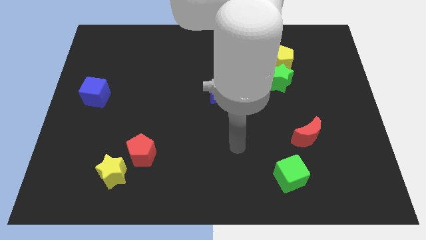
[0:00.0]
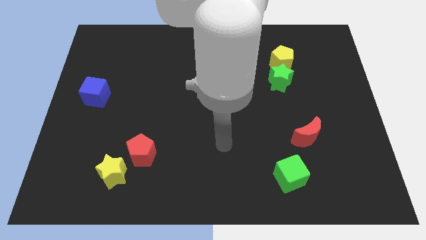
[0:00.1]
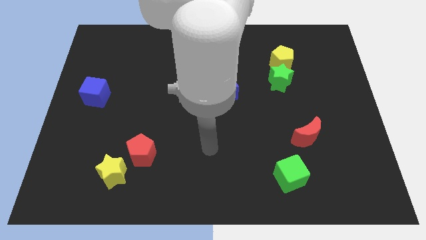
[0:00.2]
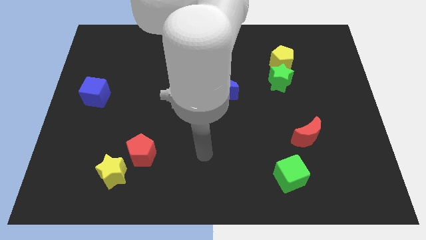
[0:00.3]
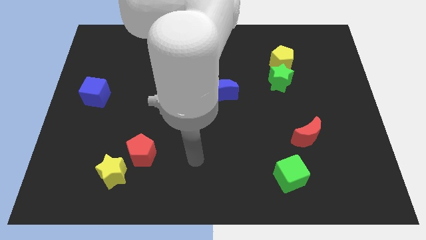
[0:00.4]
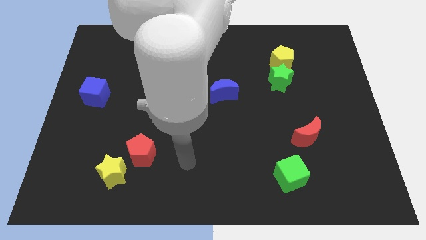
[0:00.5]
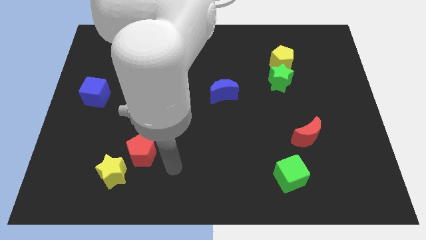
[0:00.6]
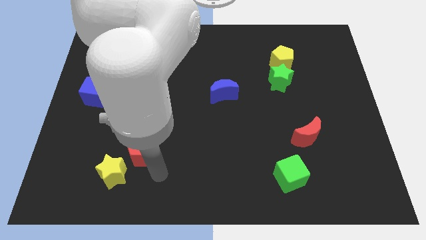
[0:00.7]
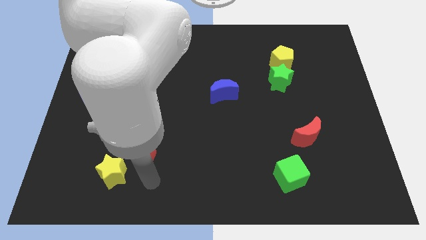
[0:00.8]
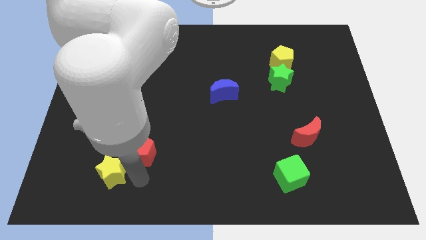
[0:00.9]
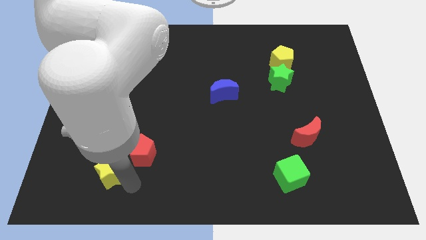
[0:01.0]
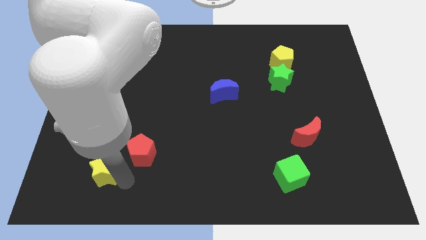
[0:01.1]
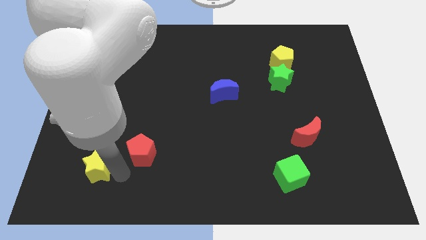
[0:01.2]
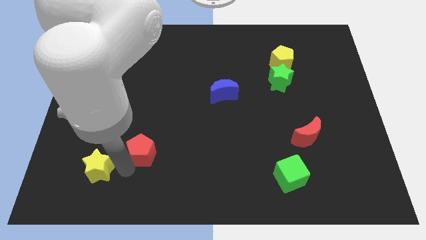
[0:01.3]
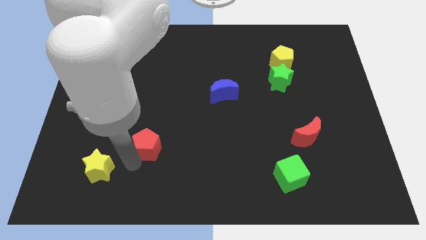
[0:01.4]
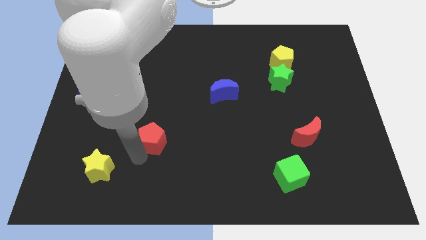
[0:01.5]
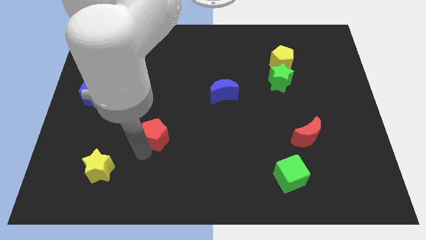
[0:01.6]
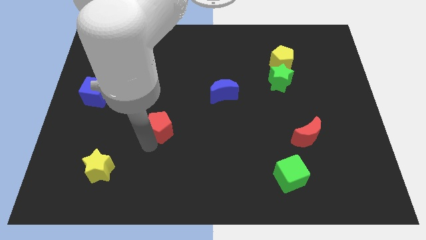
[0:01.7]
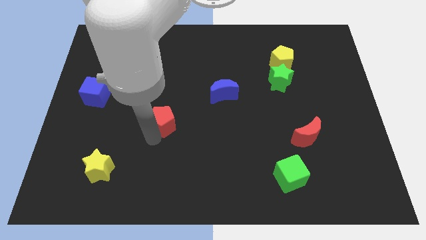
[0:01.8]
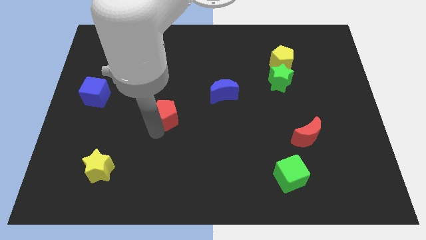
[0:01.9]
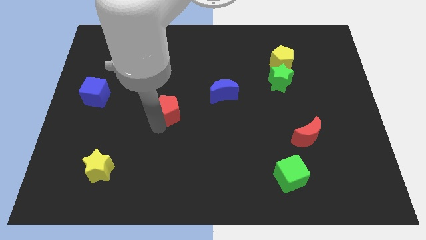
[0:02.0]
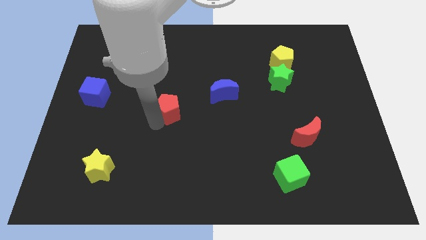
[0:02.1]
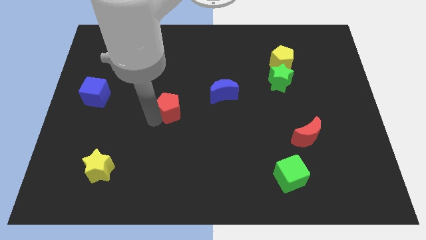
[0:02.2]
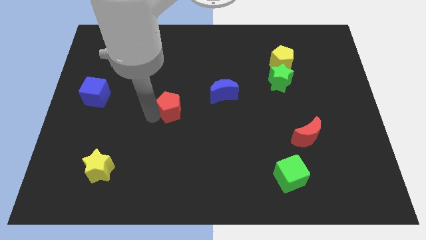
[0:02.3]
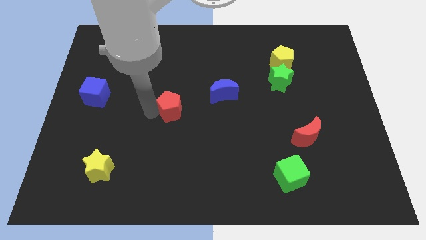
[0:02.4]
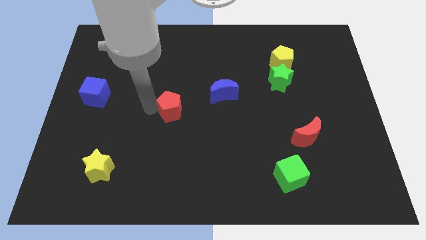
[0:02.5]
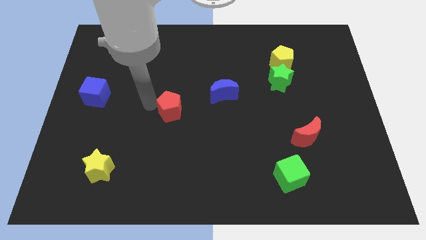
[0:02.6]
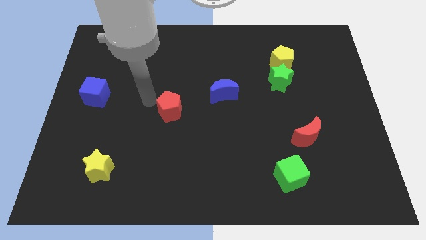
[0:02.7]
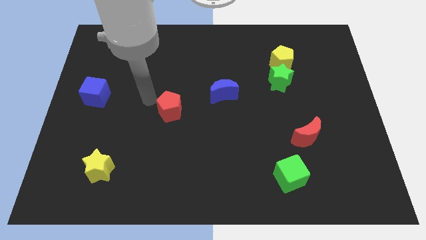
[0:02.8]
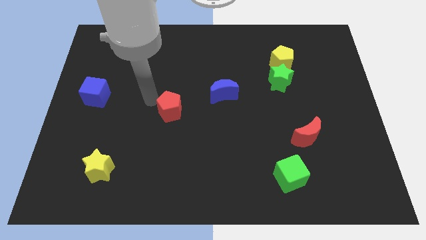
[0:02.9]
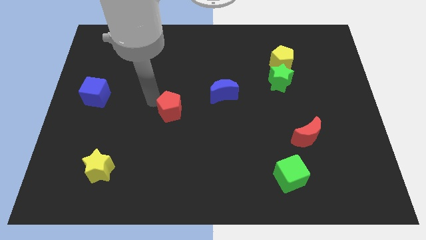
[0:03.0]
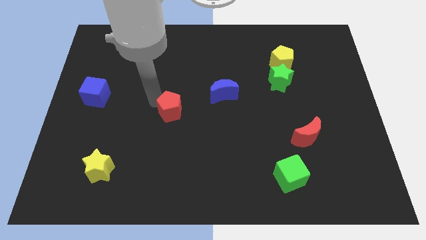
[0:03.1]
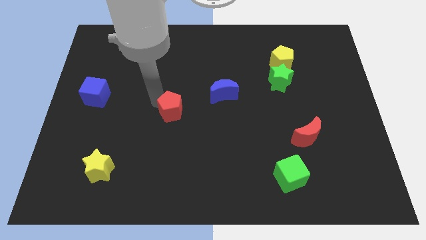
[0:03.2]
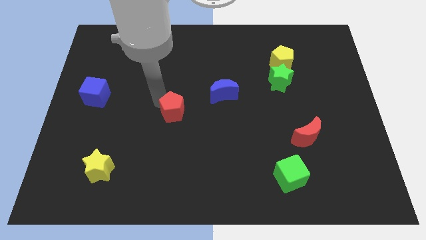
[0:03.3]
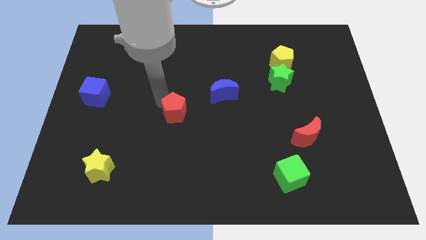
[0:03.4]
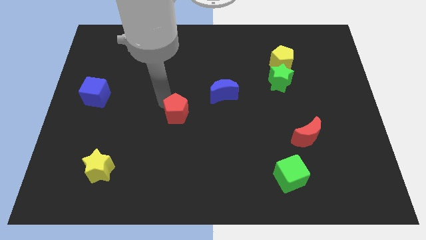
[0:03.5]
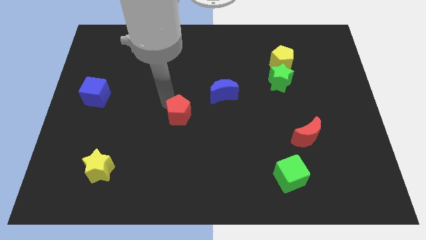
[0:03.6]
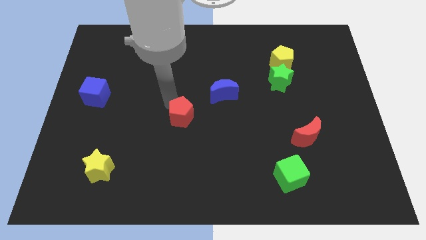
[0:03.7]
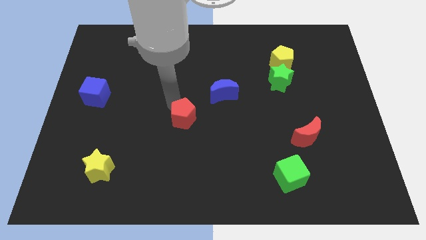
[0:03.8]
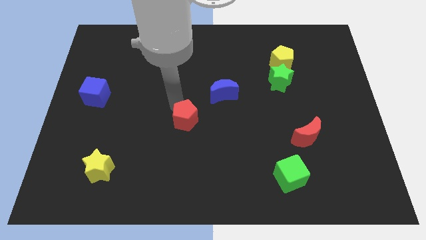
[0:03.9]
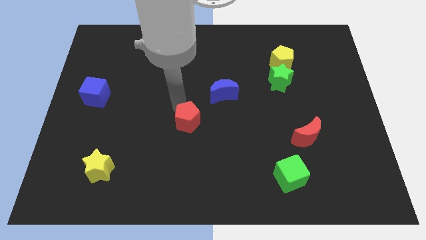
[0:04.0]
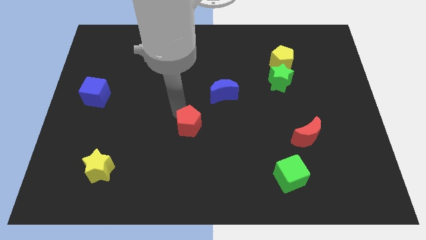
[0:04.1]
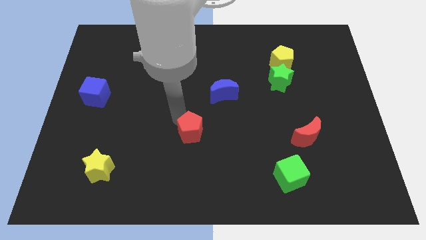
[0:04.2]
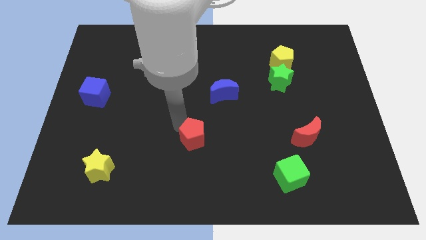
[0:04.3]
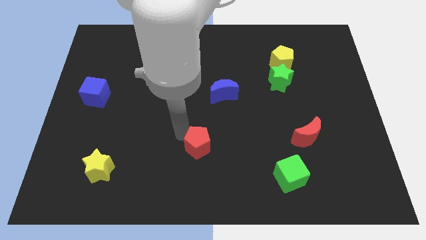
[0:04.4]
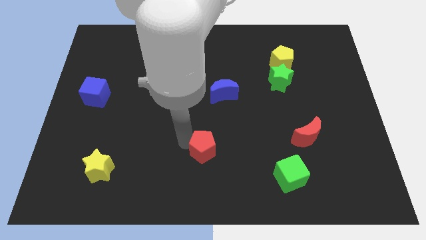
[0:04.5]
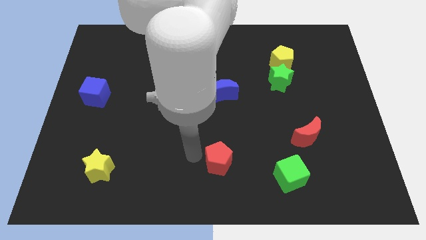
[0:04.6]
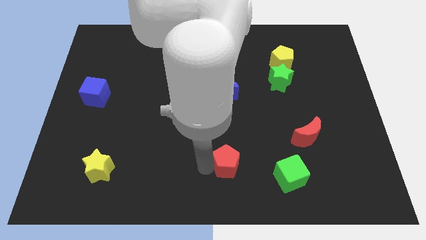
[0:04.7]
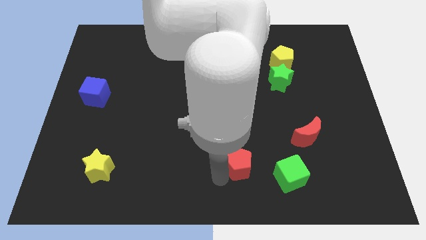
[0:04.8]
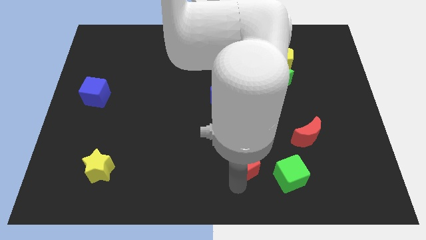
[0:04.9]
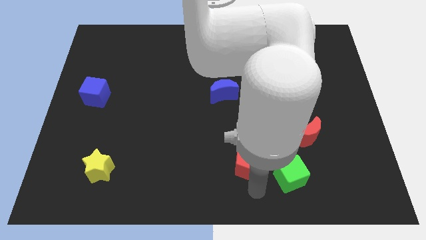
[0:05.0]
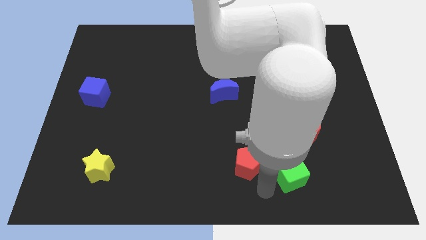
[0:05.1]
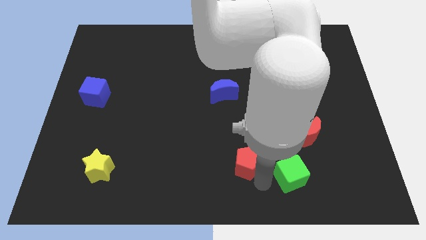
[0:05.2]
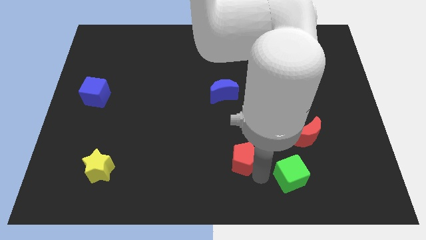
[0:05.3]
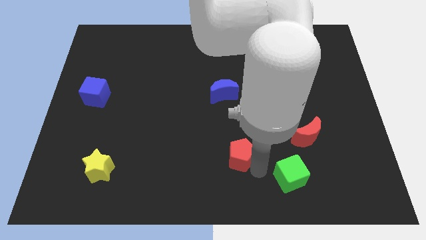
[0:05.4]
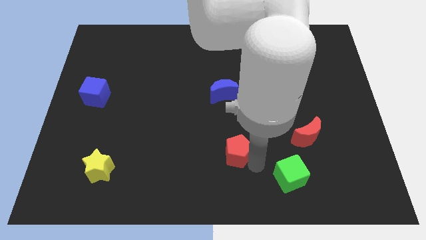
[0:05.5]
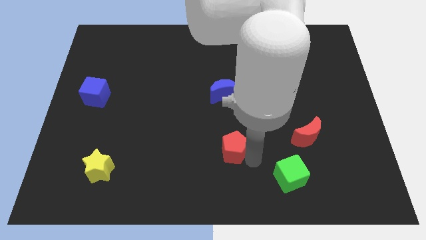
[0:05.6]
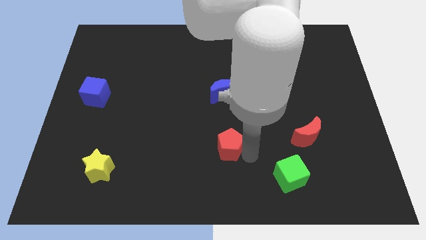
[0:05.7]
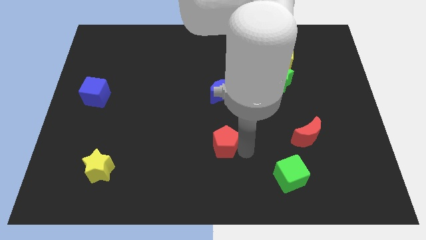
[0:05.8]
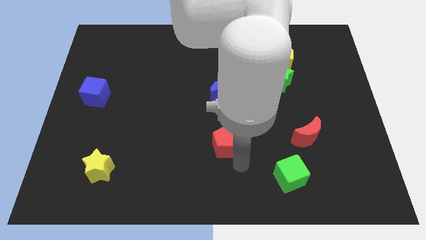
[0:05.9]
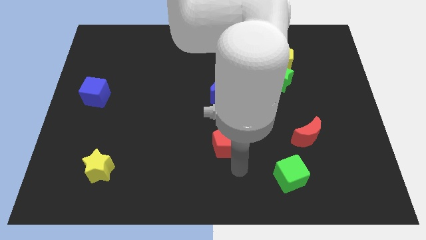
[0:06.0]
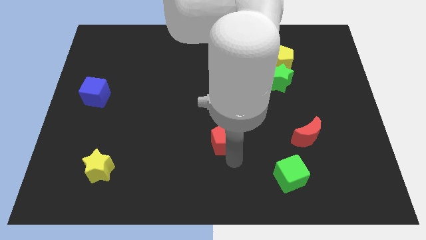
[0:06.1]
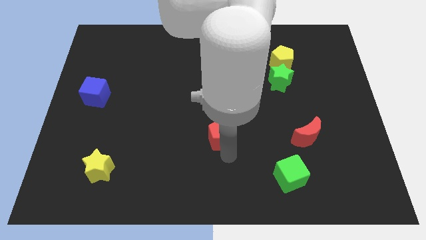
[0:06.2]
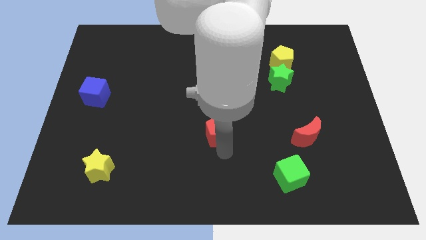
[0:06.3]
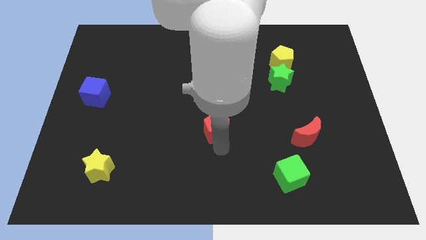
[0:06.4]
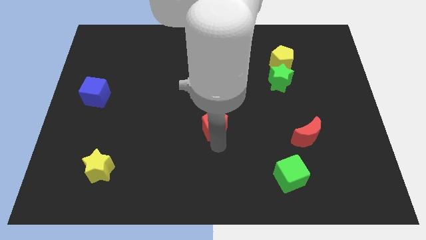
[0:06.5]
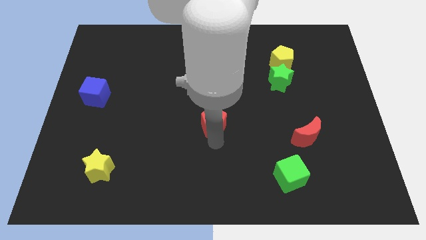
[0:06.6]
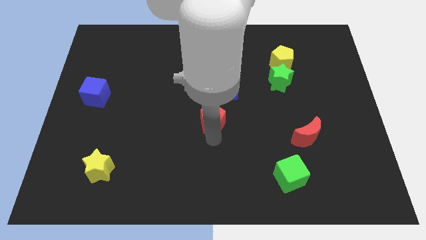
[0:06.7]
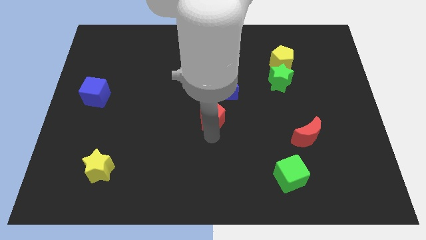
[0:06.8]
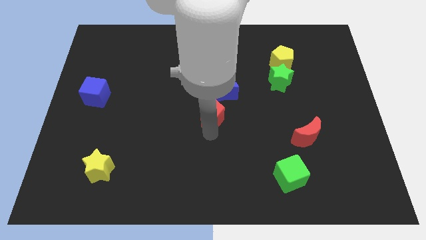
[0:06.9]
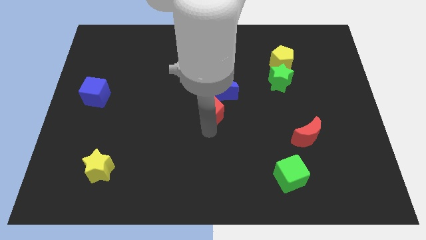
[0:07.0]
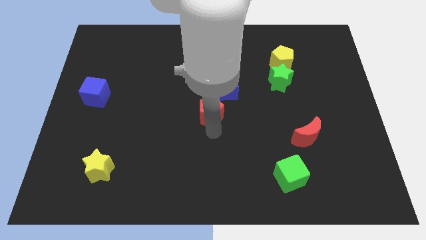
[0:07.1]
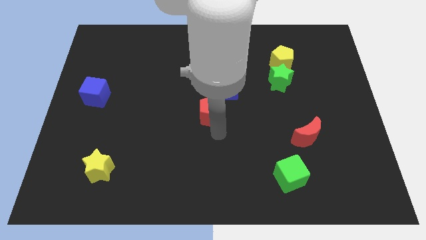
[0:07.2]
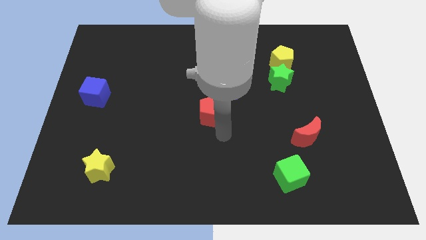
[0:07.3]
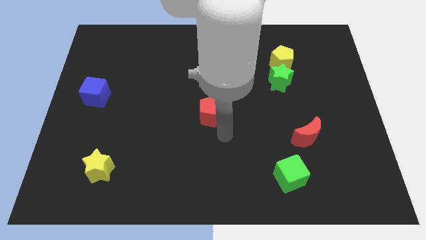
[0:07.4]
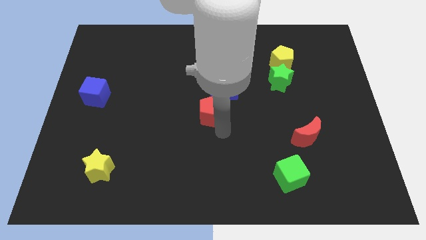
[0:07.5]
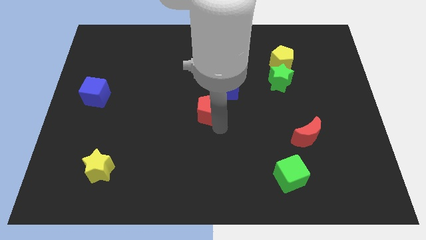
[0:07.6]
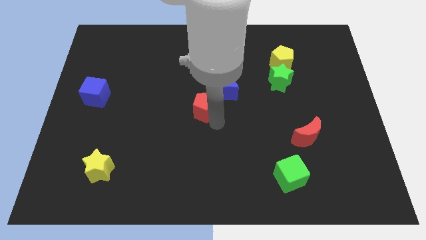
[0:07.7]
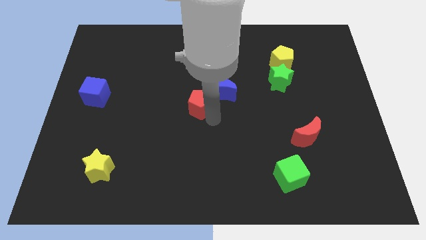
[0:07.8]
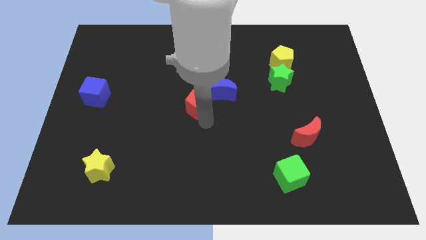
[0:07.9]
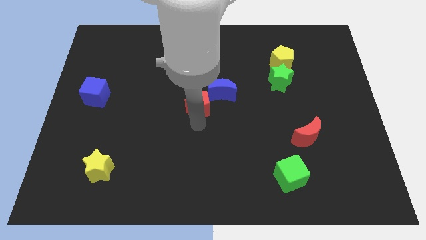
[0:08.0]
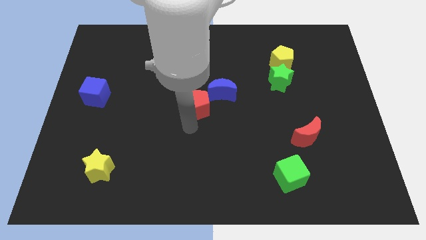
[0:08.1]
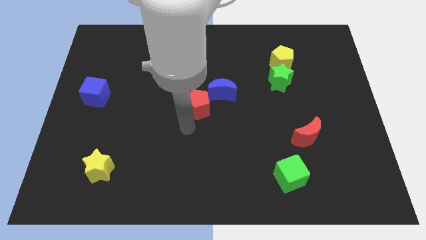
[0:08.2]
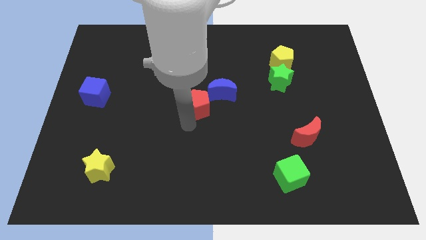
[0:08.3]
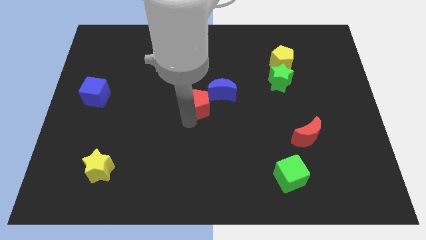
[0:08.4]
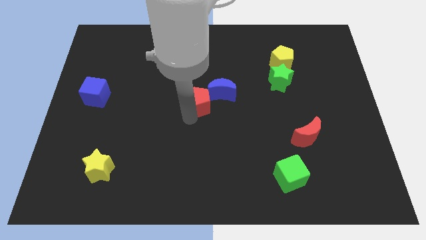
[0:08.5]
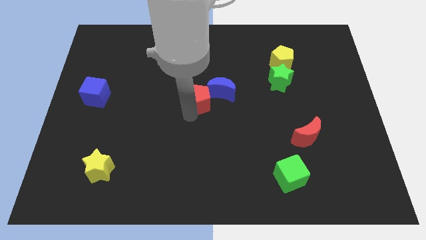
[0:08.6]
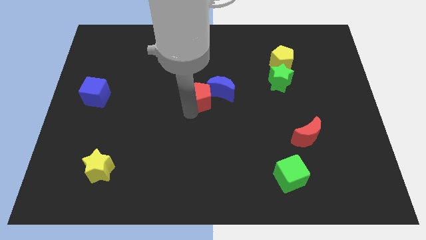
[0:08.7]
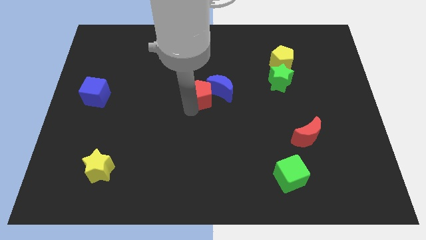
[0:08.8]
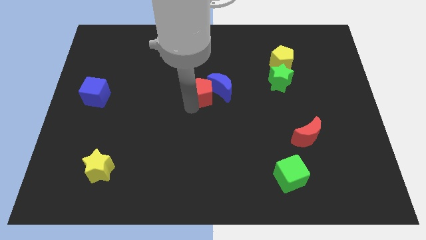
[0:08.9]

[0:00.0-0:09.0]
slide the red pentagon upwards and then to the right
